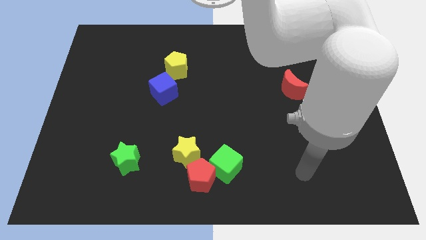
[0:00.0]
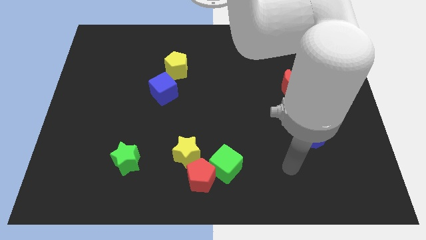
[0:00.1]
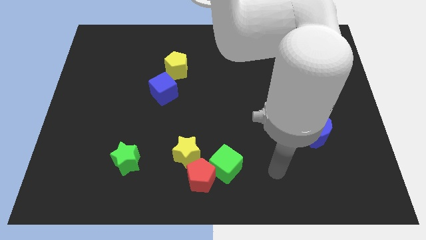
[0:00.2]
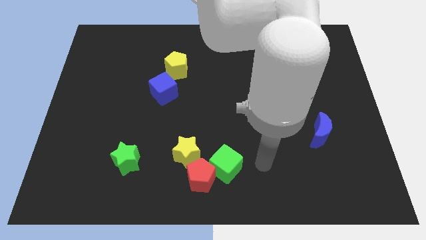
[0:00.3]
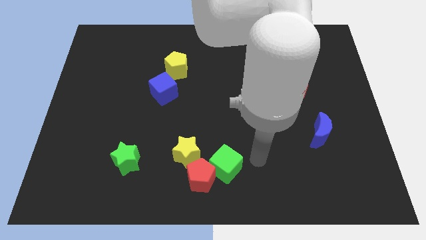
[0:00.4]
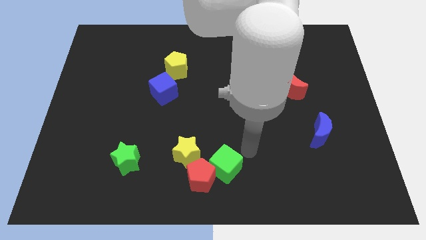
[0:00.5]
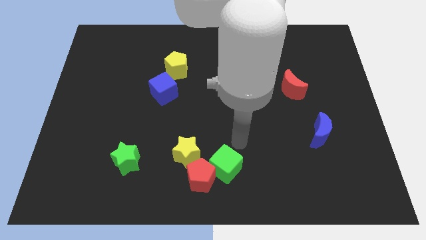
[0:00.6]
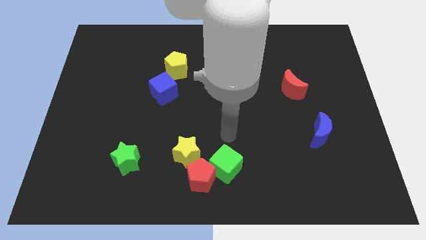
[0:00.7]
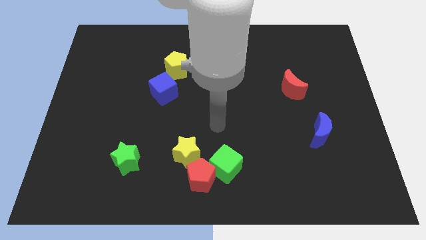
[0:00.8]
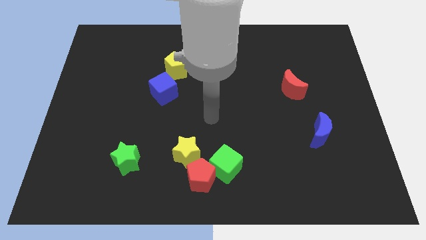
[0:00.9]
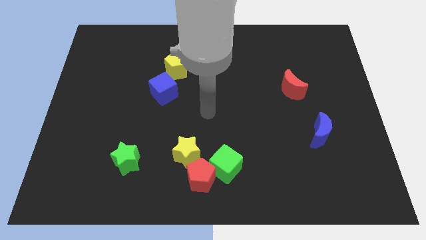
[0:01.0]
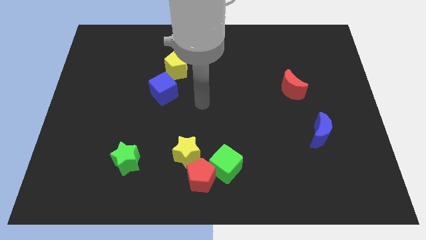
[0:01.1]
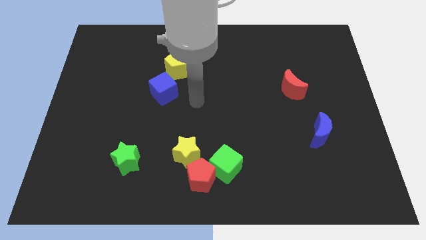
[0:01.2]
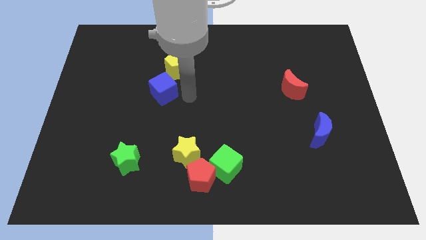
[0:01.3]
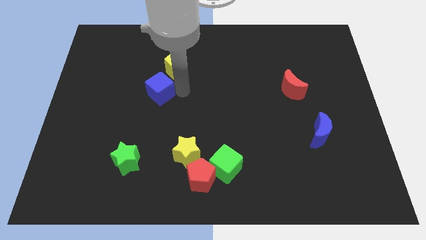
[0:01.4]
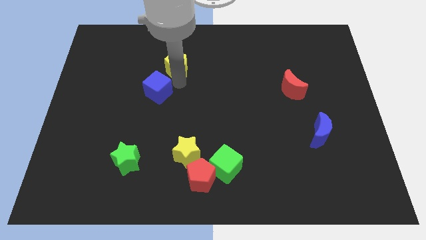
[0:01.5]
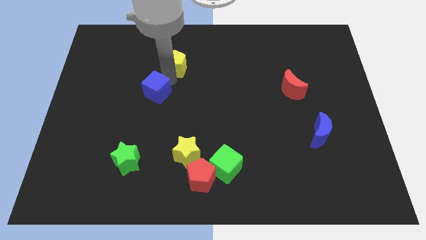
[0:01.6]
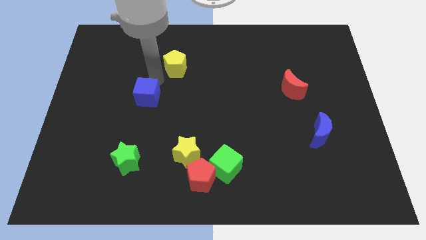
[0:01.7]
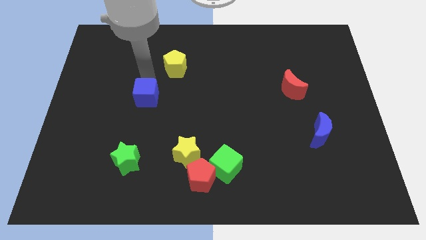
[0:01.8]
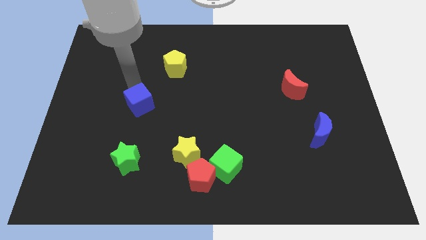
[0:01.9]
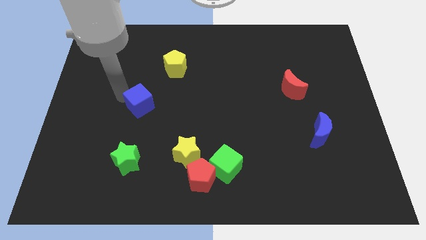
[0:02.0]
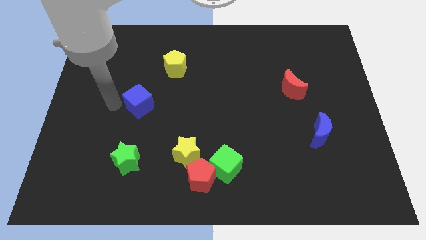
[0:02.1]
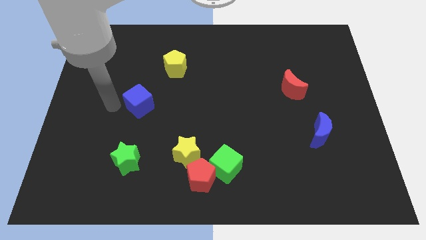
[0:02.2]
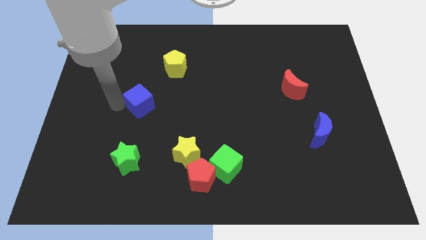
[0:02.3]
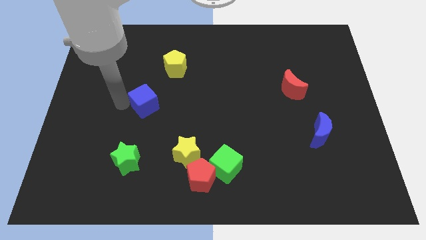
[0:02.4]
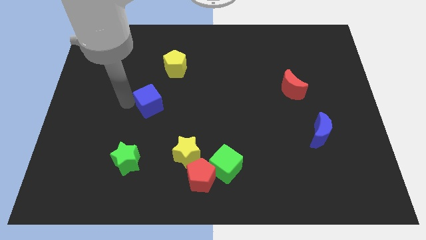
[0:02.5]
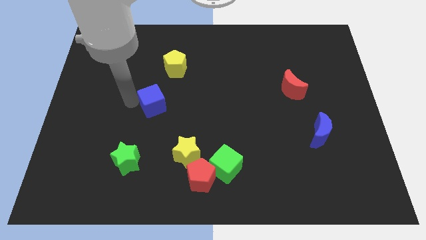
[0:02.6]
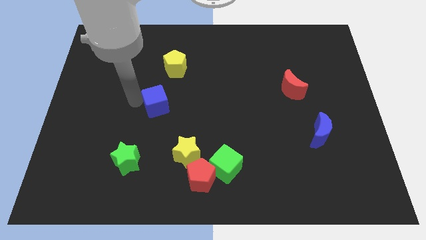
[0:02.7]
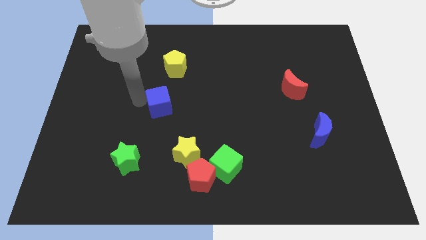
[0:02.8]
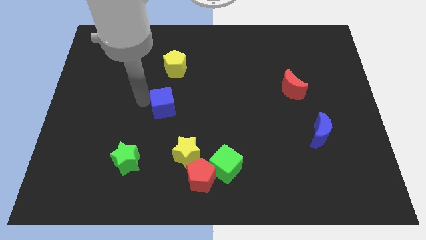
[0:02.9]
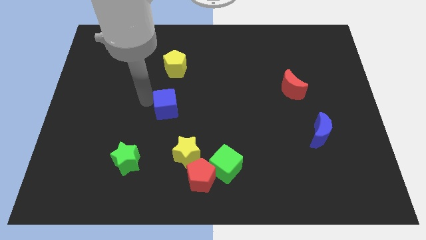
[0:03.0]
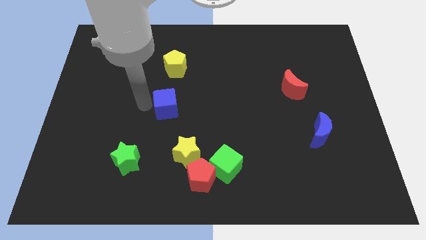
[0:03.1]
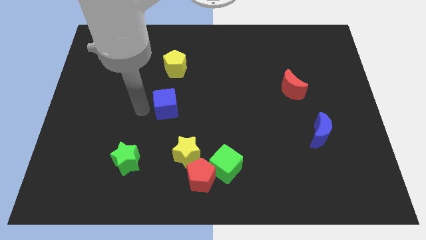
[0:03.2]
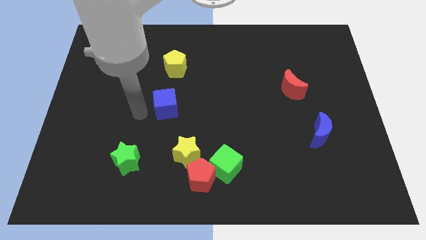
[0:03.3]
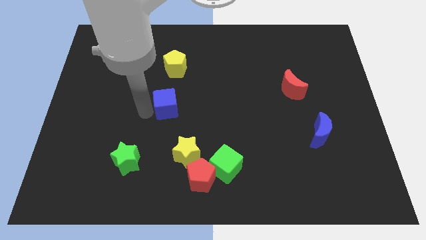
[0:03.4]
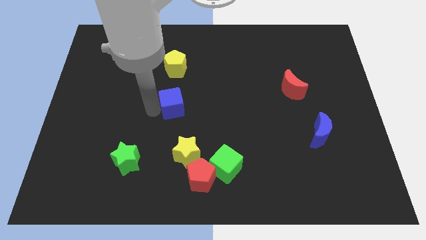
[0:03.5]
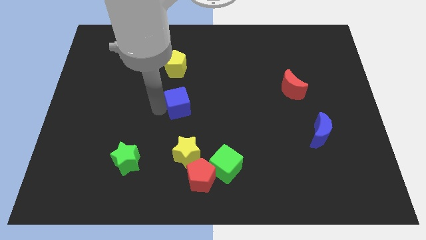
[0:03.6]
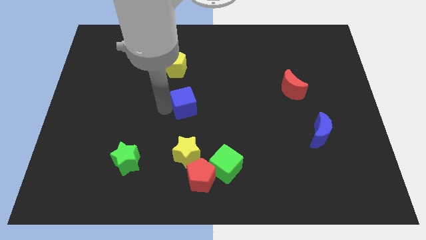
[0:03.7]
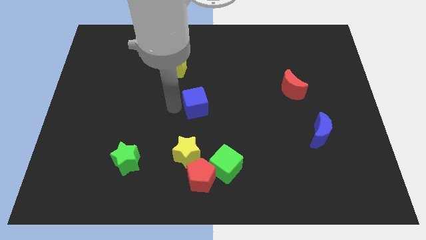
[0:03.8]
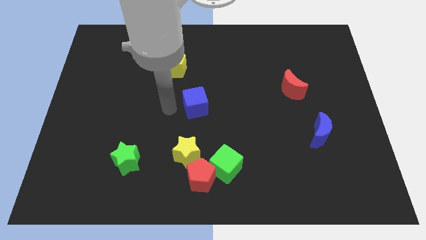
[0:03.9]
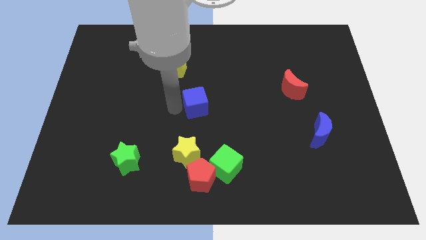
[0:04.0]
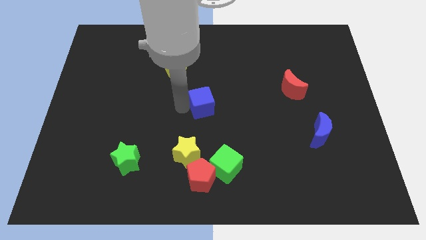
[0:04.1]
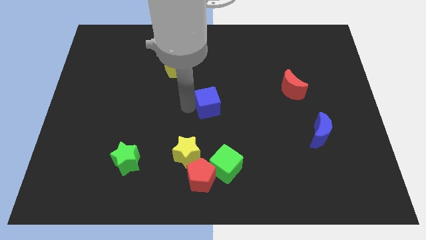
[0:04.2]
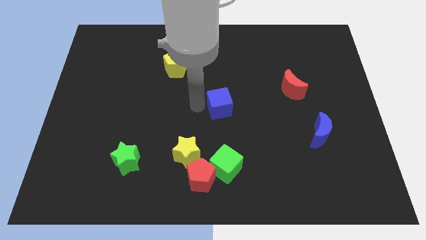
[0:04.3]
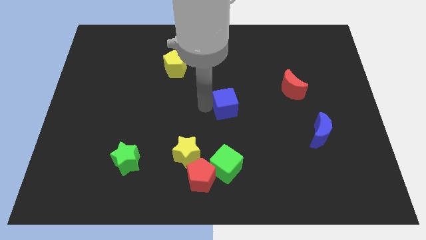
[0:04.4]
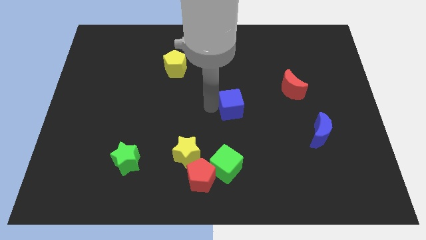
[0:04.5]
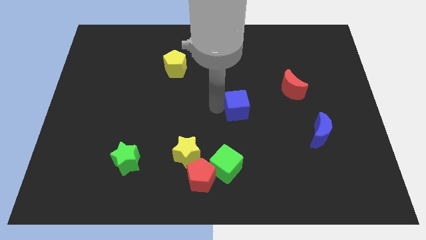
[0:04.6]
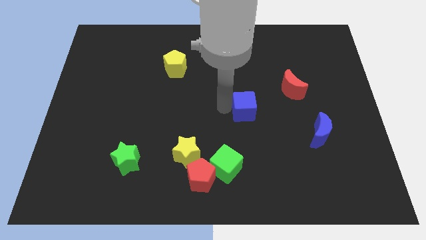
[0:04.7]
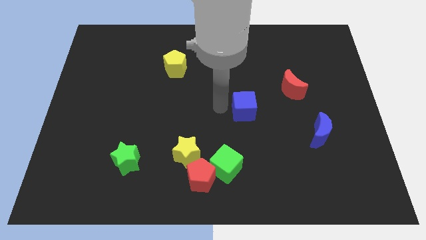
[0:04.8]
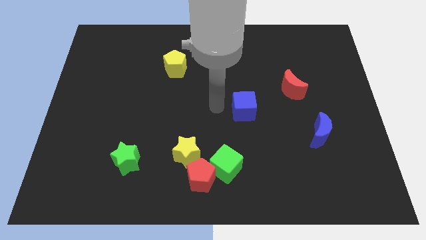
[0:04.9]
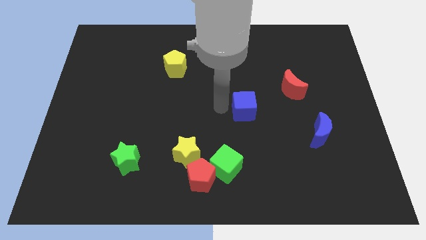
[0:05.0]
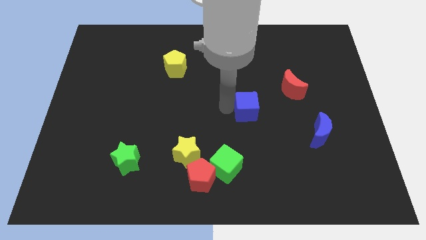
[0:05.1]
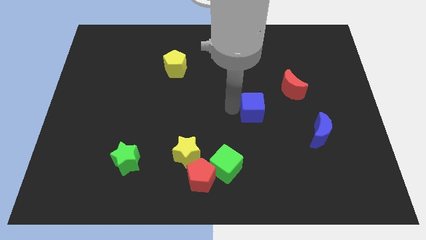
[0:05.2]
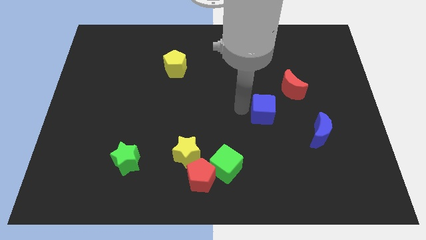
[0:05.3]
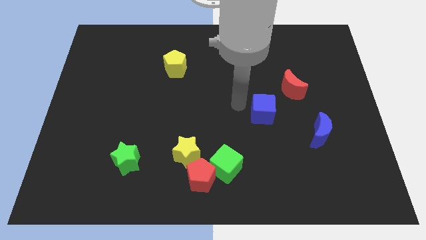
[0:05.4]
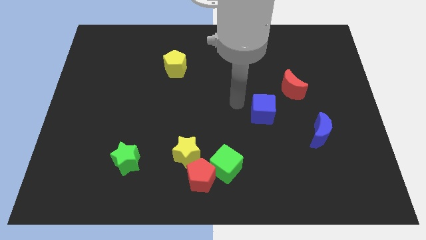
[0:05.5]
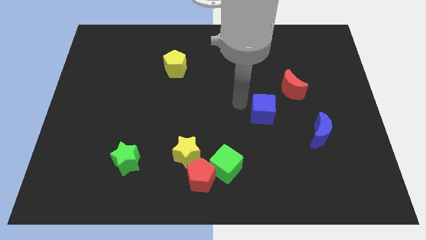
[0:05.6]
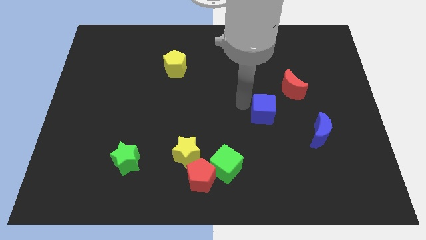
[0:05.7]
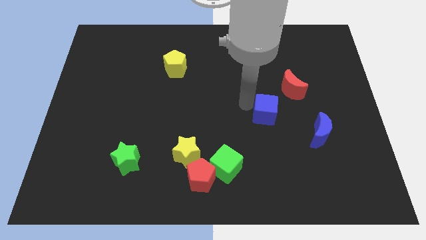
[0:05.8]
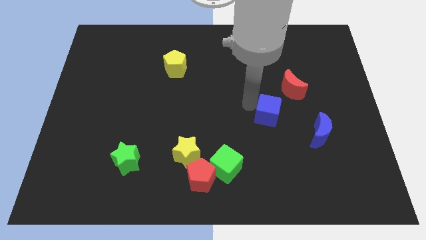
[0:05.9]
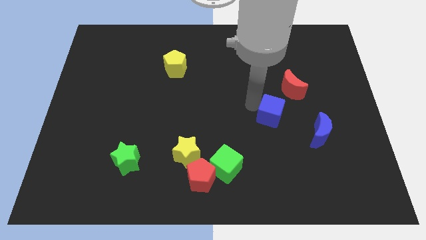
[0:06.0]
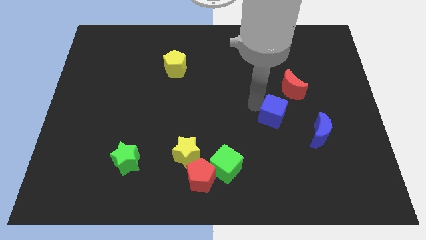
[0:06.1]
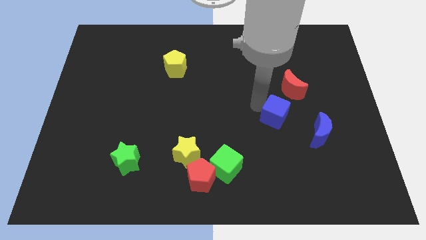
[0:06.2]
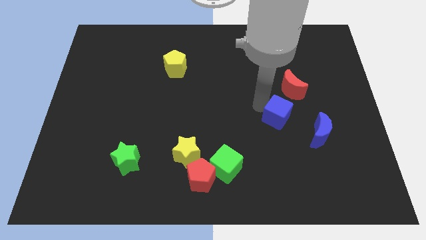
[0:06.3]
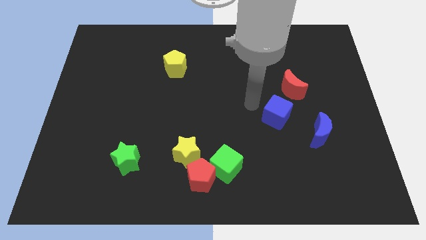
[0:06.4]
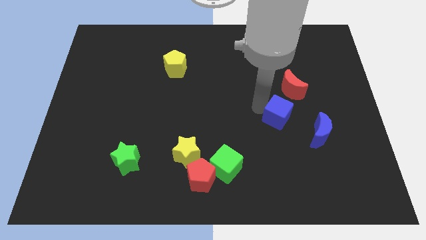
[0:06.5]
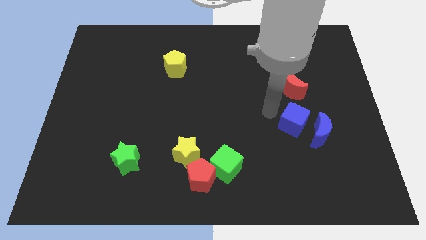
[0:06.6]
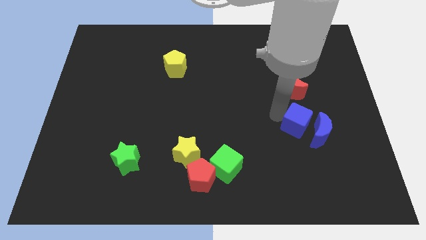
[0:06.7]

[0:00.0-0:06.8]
push the blue cube to the blue moon

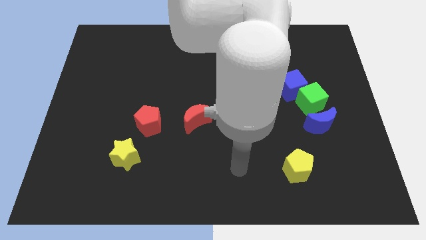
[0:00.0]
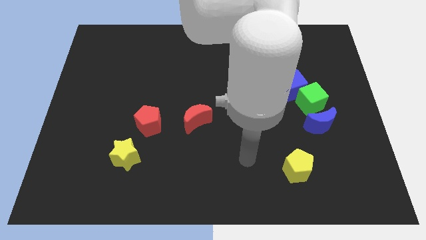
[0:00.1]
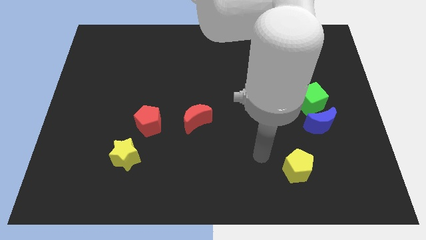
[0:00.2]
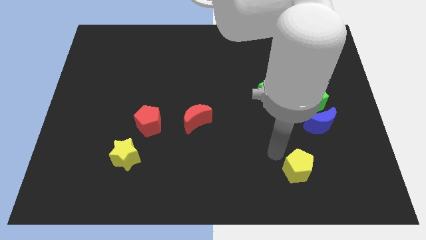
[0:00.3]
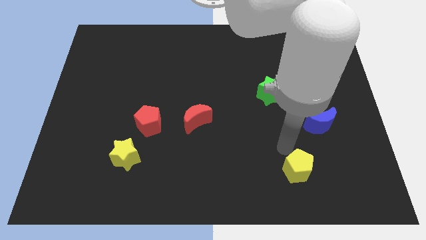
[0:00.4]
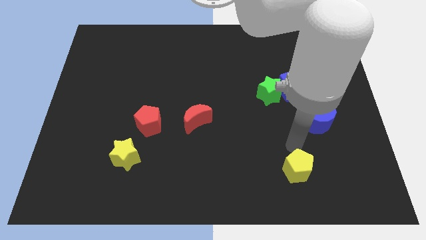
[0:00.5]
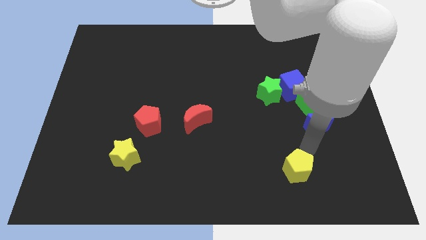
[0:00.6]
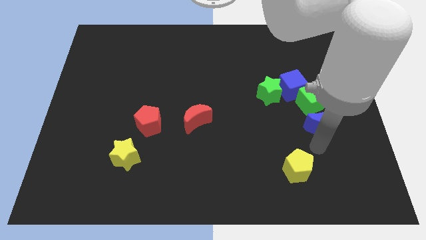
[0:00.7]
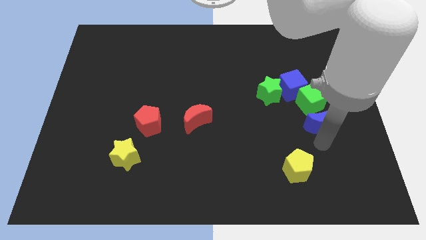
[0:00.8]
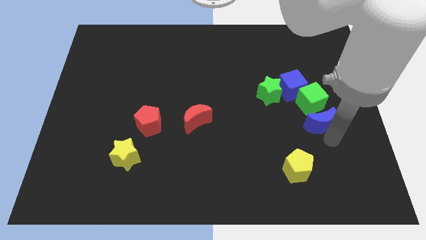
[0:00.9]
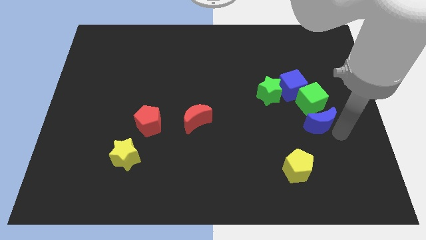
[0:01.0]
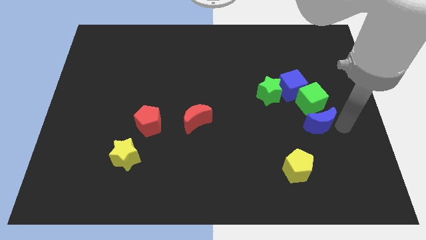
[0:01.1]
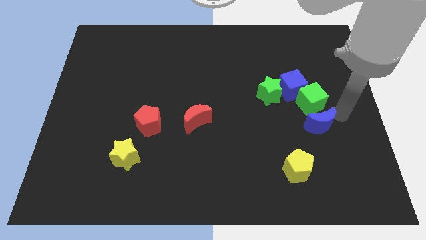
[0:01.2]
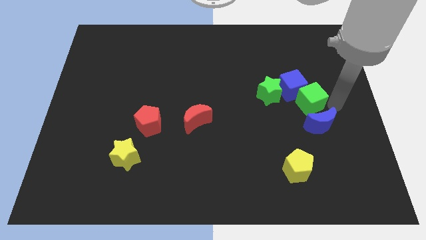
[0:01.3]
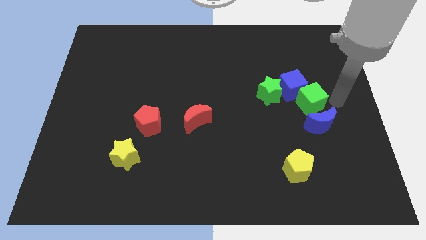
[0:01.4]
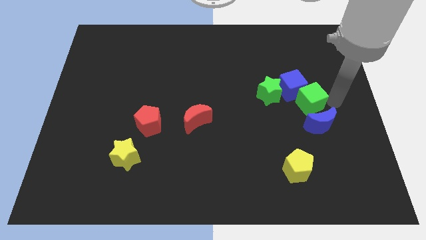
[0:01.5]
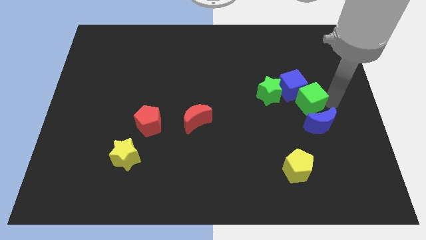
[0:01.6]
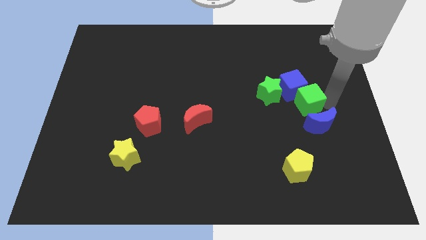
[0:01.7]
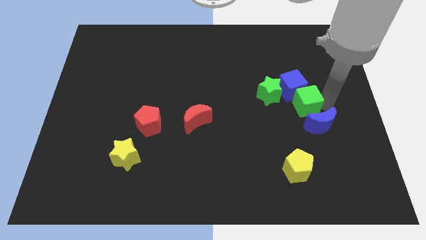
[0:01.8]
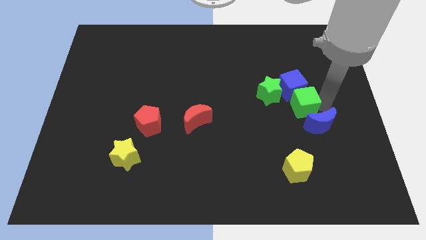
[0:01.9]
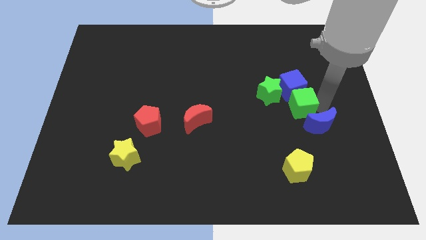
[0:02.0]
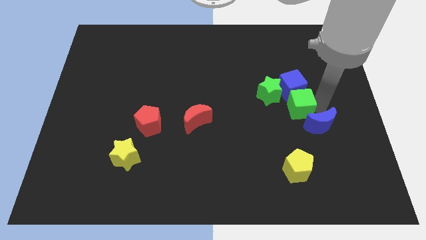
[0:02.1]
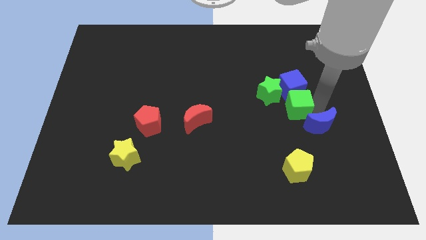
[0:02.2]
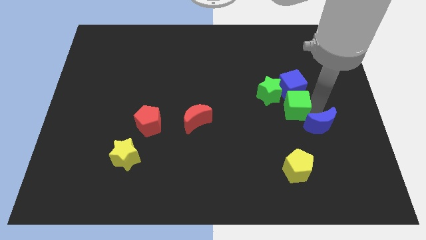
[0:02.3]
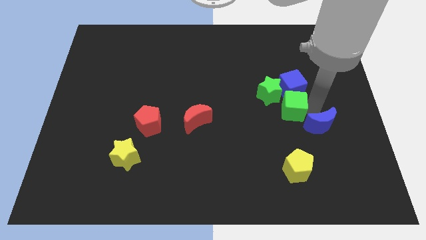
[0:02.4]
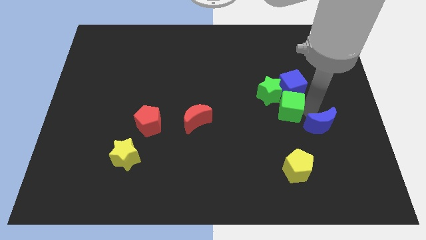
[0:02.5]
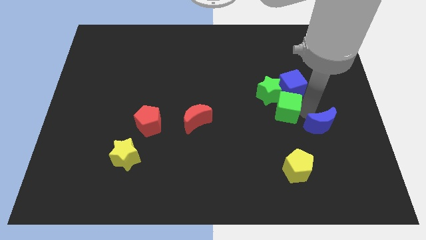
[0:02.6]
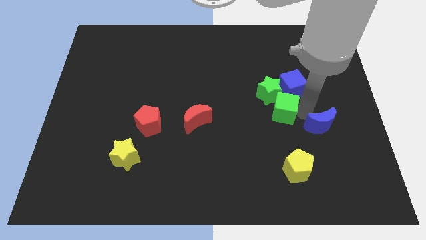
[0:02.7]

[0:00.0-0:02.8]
slide the green cube next to the green star
